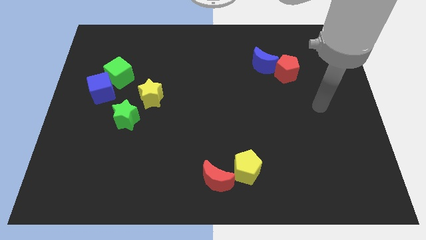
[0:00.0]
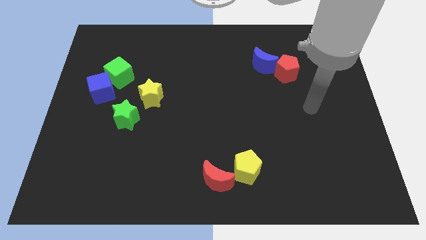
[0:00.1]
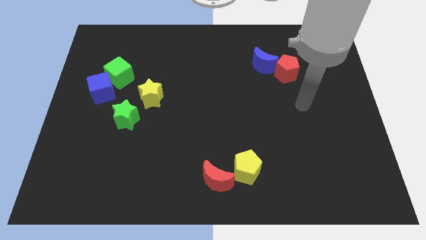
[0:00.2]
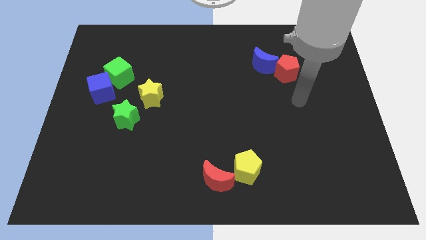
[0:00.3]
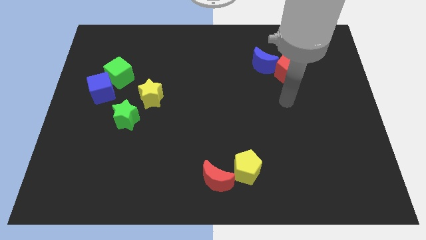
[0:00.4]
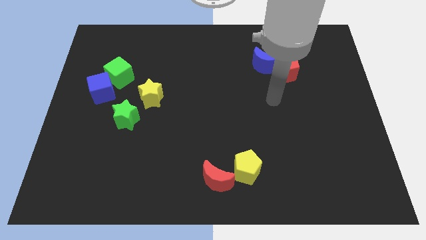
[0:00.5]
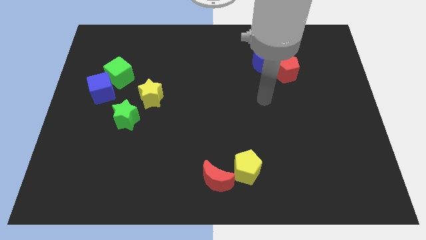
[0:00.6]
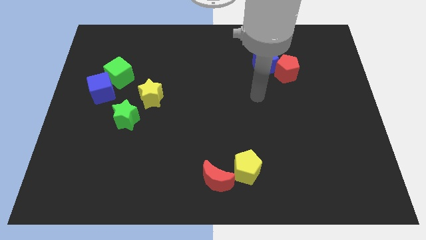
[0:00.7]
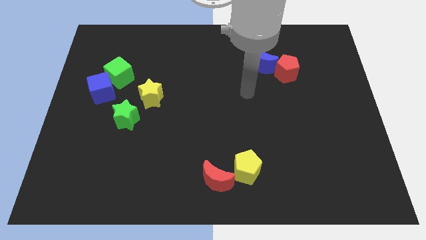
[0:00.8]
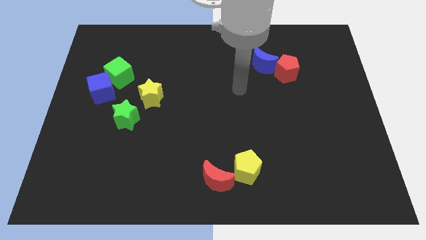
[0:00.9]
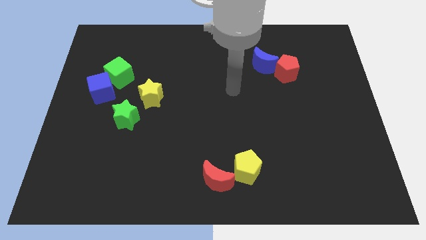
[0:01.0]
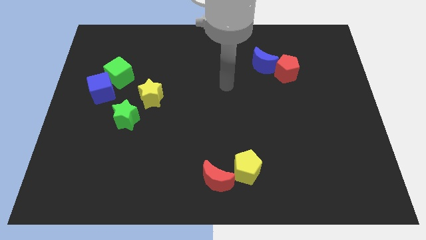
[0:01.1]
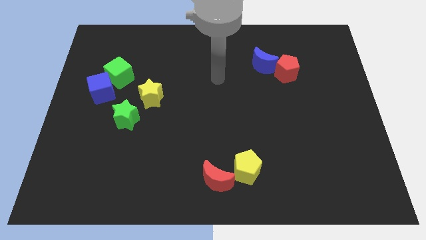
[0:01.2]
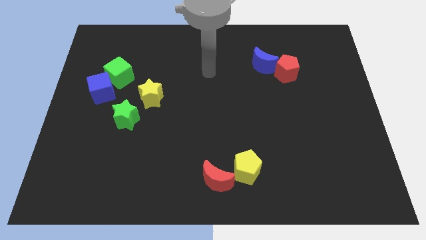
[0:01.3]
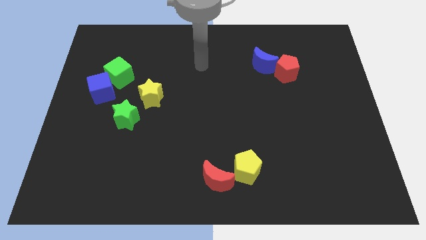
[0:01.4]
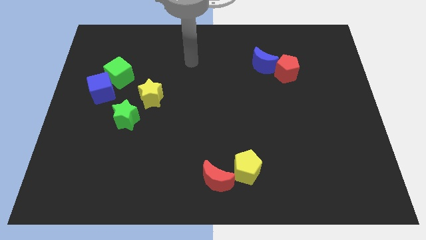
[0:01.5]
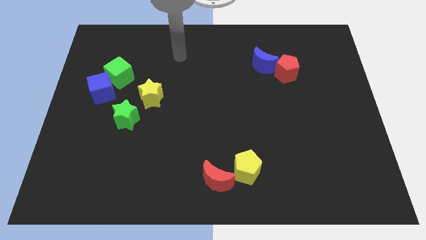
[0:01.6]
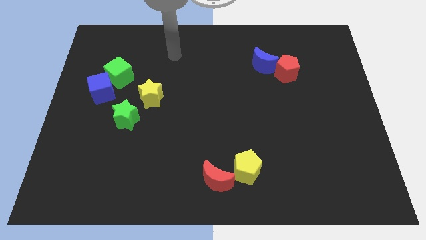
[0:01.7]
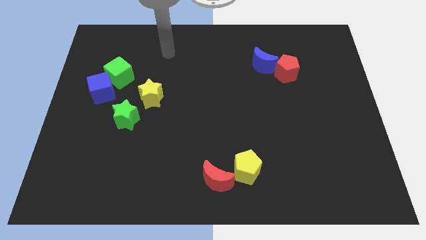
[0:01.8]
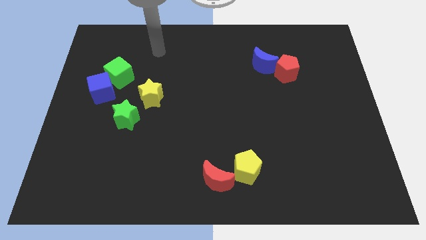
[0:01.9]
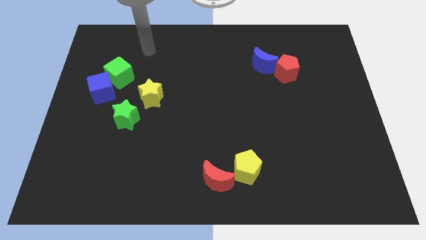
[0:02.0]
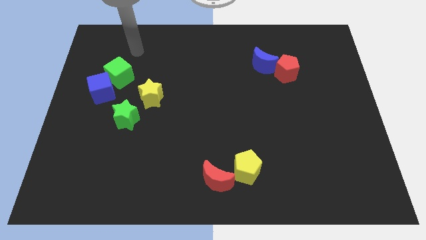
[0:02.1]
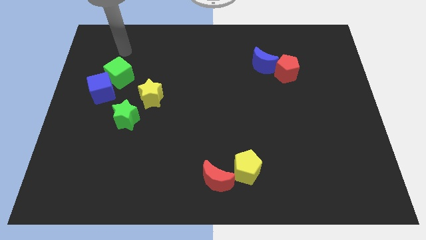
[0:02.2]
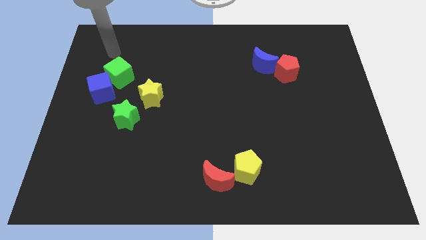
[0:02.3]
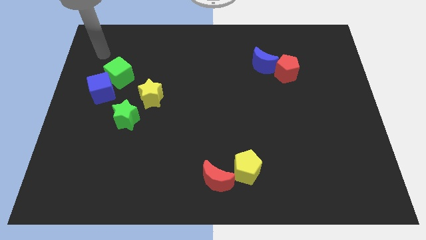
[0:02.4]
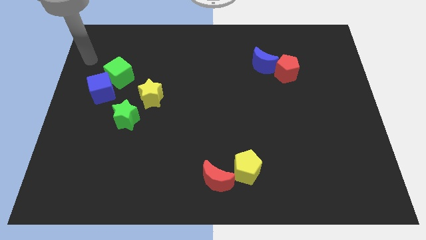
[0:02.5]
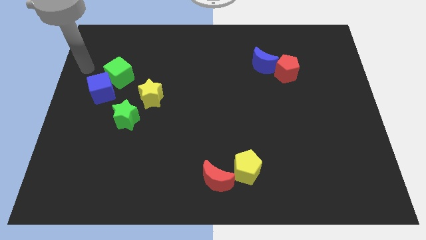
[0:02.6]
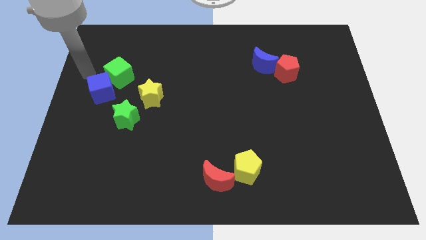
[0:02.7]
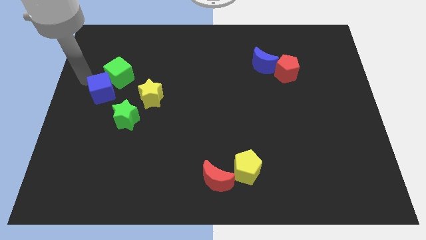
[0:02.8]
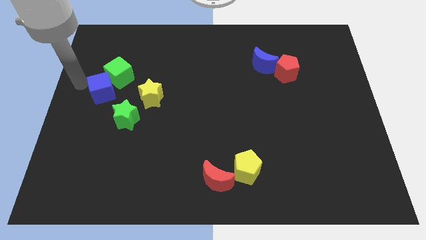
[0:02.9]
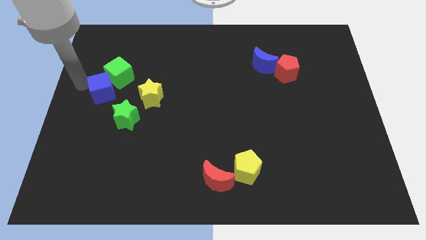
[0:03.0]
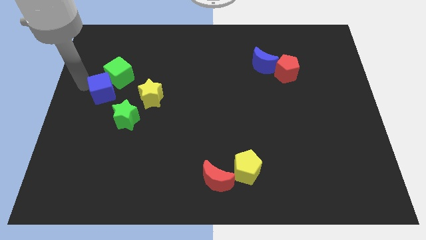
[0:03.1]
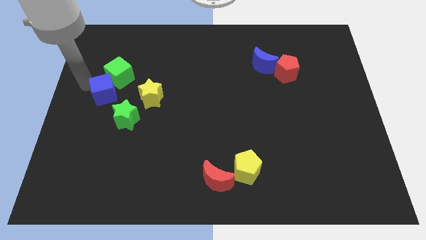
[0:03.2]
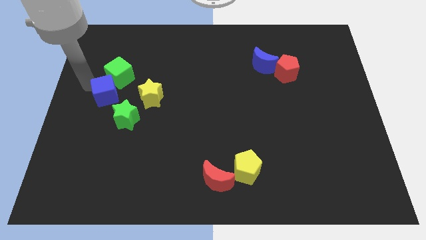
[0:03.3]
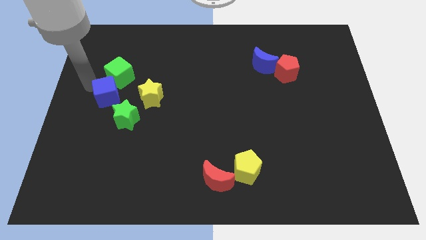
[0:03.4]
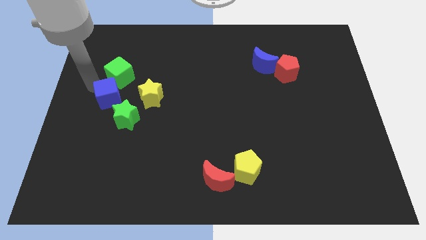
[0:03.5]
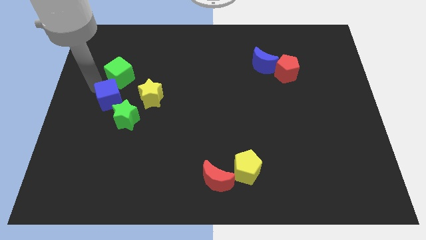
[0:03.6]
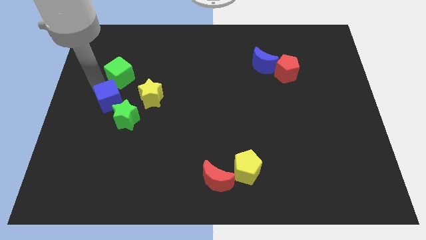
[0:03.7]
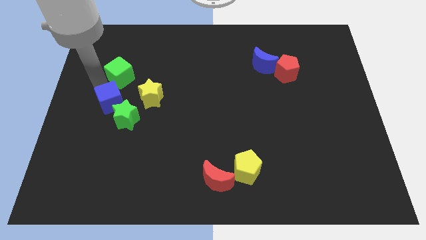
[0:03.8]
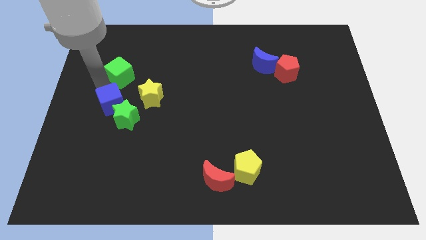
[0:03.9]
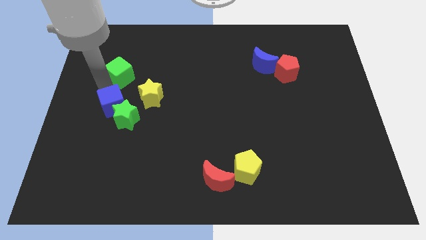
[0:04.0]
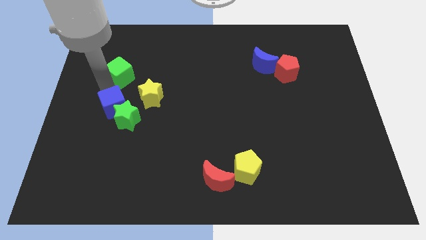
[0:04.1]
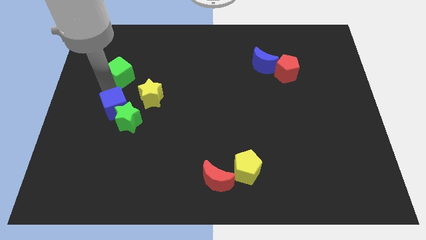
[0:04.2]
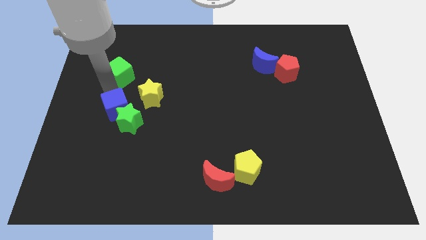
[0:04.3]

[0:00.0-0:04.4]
slide the blue cube downwards and right diagonally a bit

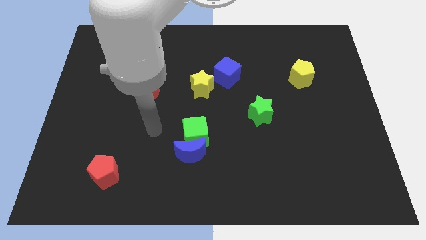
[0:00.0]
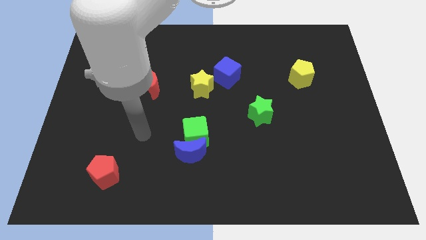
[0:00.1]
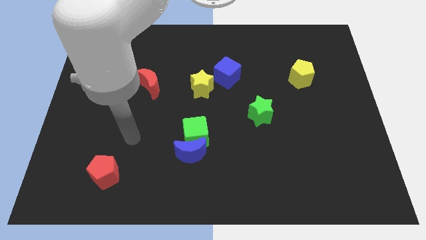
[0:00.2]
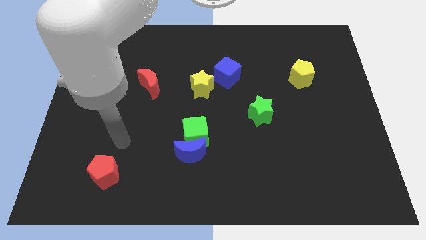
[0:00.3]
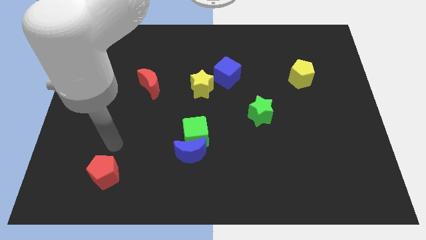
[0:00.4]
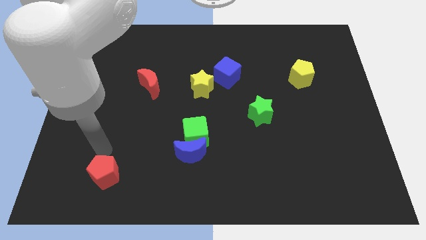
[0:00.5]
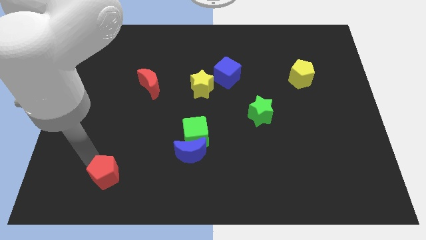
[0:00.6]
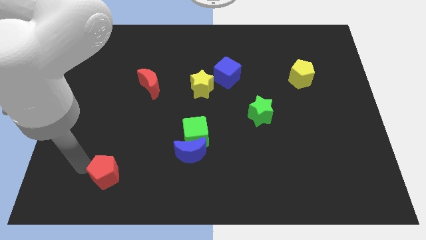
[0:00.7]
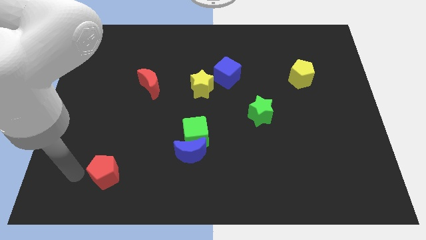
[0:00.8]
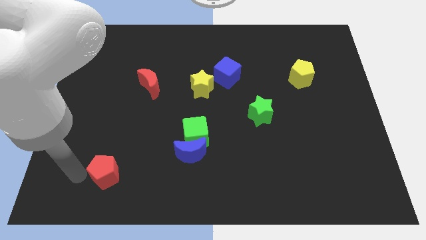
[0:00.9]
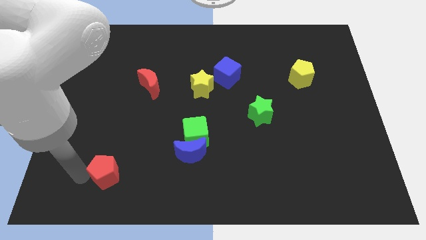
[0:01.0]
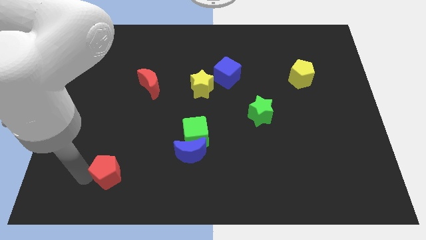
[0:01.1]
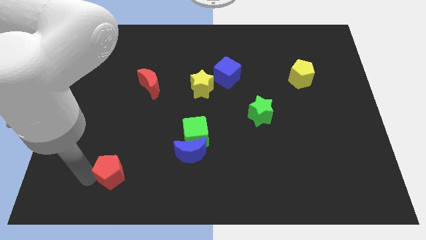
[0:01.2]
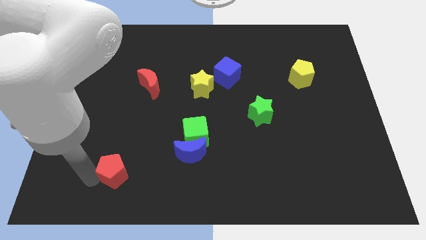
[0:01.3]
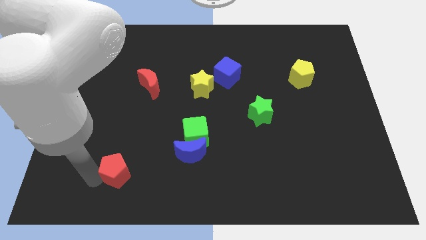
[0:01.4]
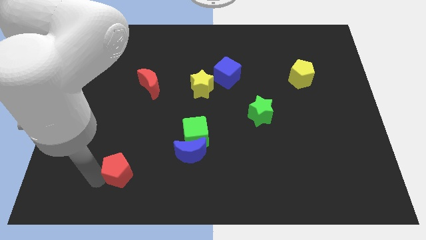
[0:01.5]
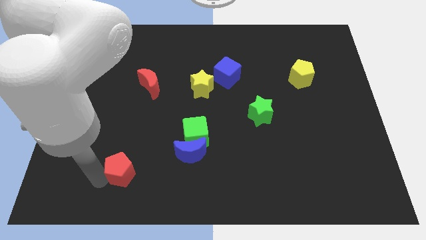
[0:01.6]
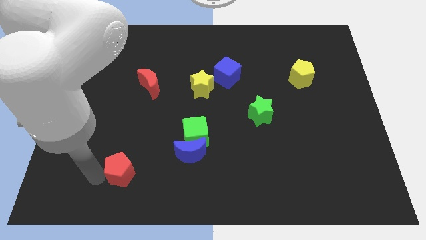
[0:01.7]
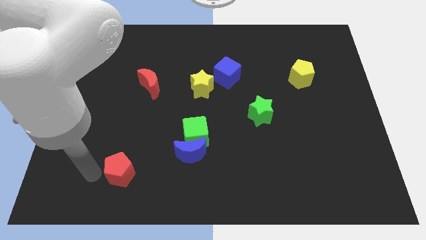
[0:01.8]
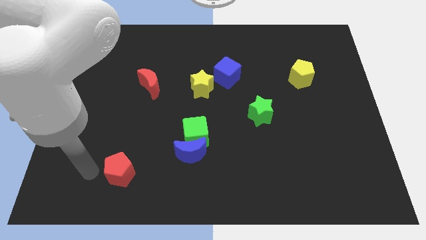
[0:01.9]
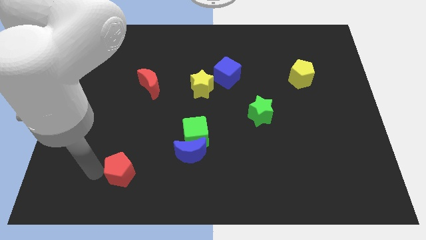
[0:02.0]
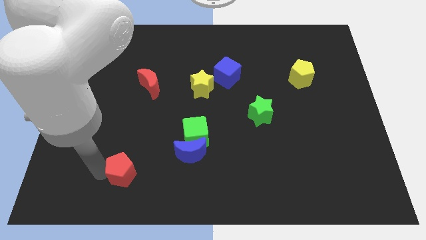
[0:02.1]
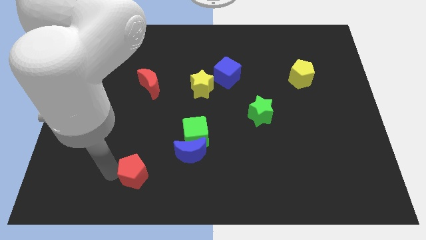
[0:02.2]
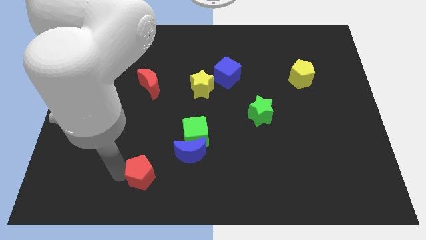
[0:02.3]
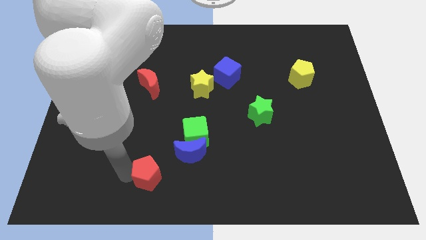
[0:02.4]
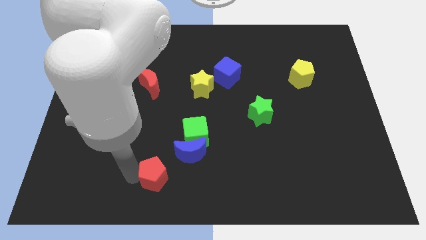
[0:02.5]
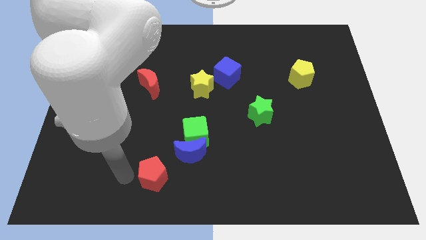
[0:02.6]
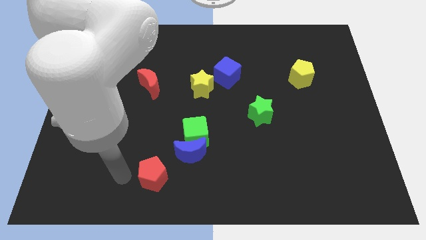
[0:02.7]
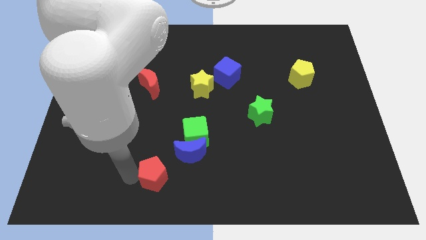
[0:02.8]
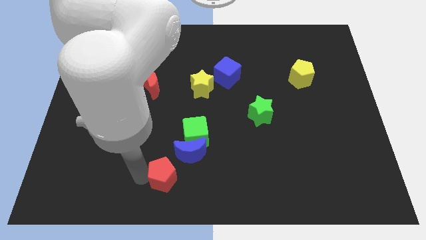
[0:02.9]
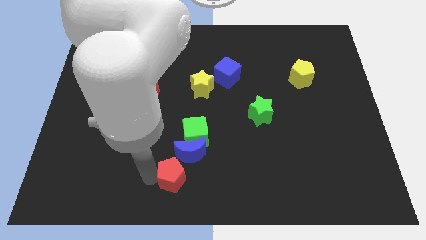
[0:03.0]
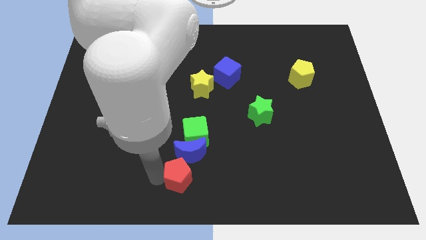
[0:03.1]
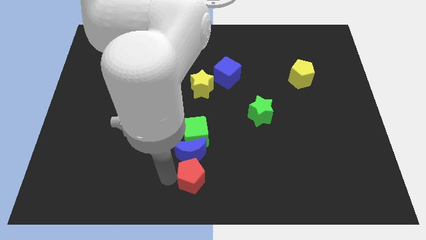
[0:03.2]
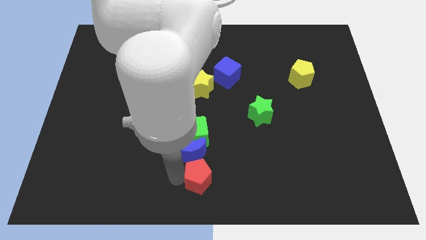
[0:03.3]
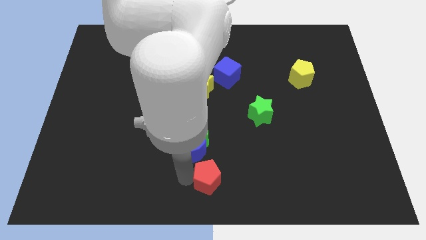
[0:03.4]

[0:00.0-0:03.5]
push the red pentagon to the right

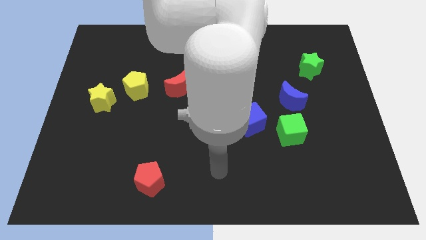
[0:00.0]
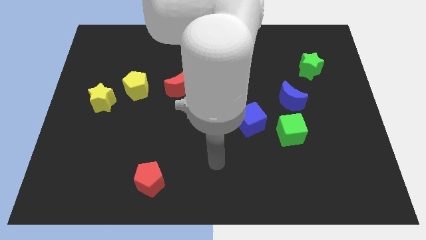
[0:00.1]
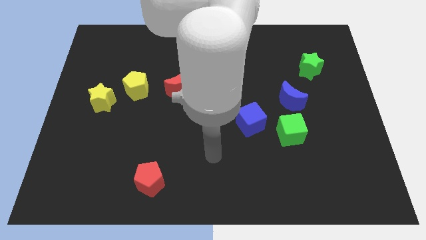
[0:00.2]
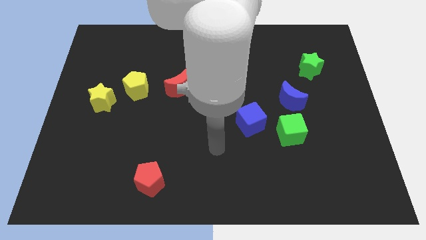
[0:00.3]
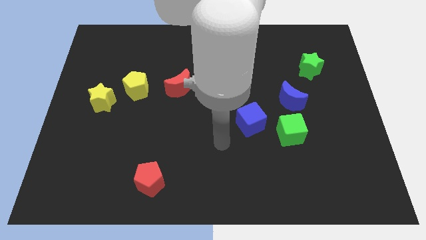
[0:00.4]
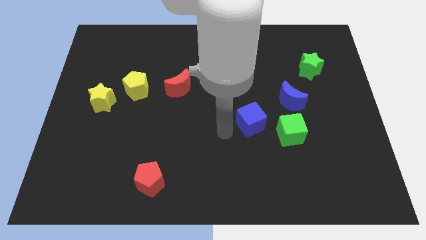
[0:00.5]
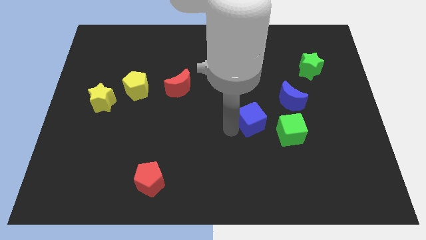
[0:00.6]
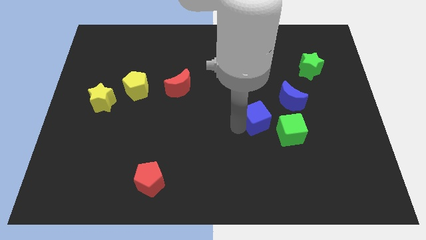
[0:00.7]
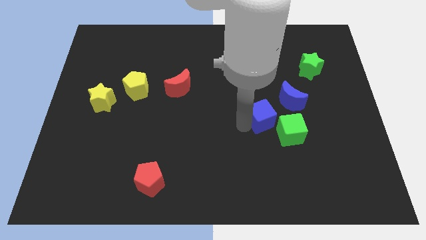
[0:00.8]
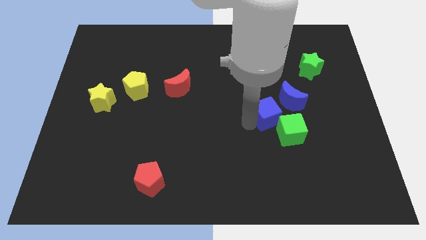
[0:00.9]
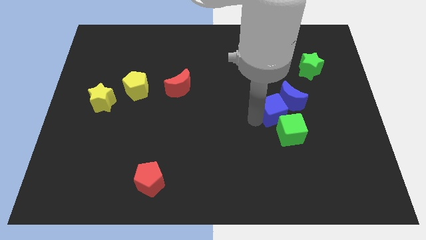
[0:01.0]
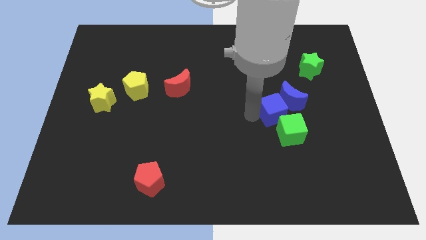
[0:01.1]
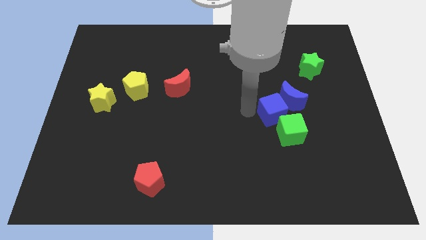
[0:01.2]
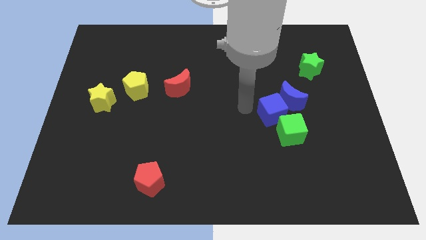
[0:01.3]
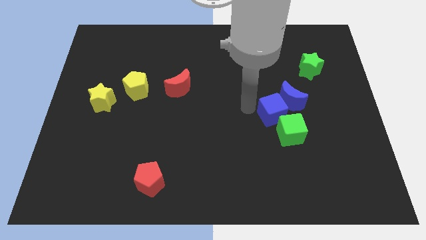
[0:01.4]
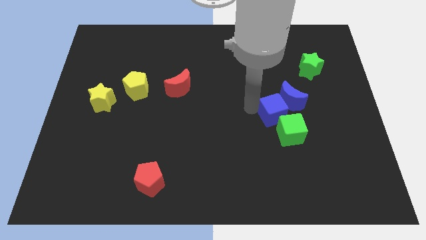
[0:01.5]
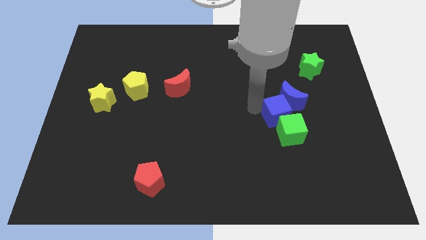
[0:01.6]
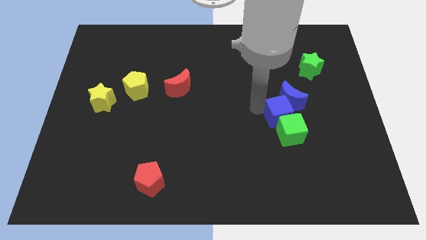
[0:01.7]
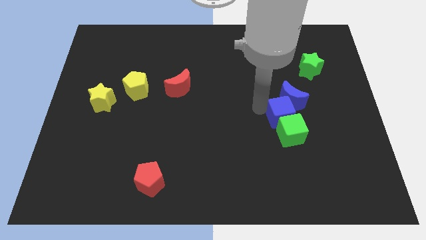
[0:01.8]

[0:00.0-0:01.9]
push the blue cube a little to the right
